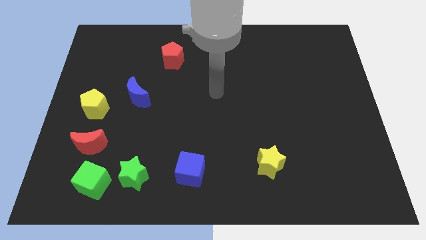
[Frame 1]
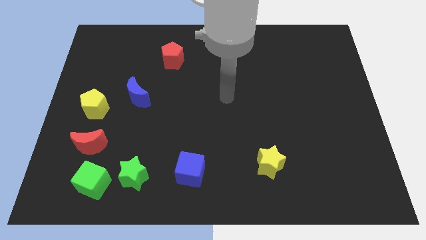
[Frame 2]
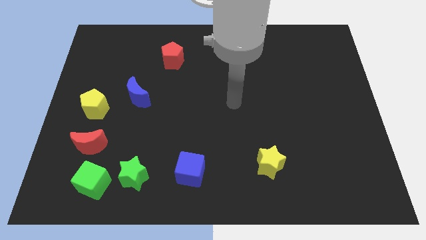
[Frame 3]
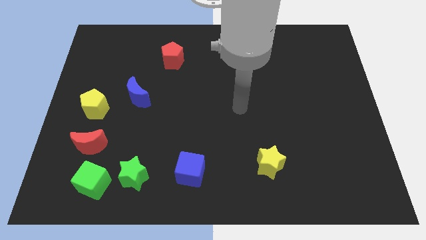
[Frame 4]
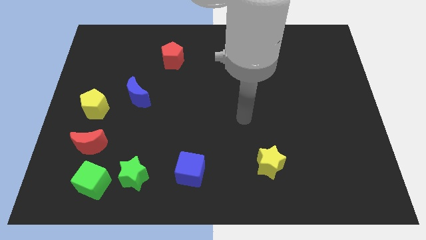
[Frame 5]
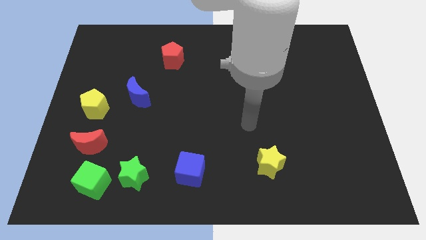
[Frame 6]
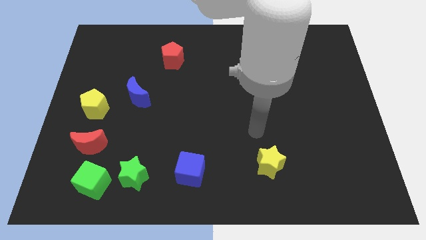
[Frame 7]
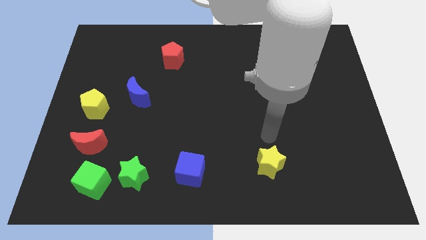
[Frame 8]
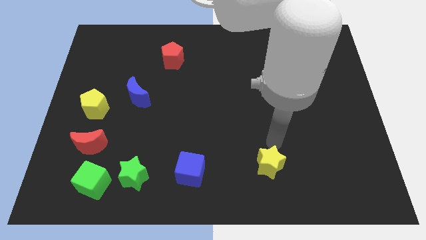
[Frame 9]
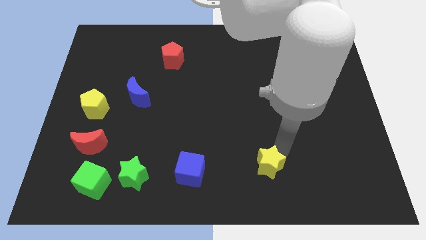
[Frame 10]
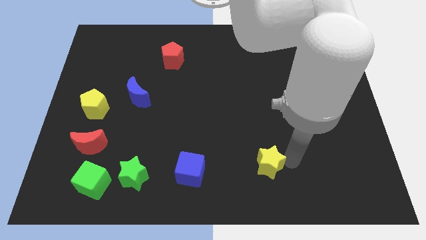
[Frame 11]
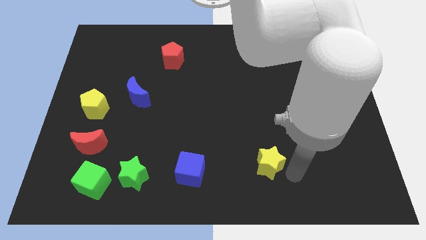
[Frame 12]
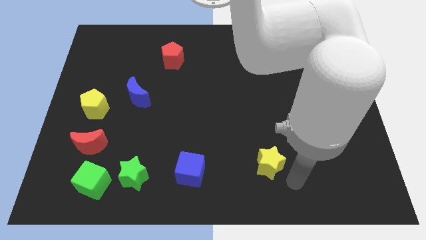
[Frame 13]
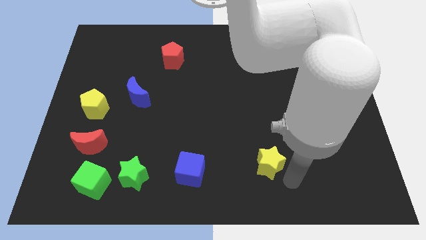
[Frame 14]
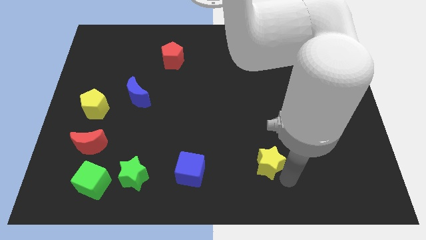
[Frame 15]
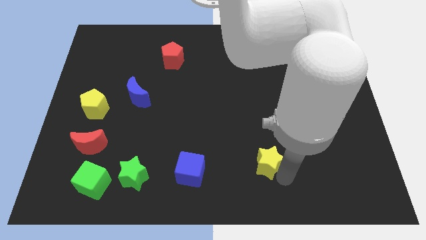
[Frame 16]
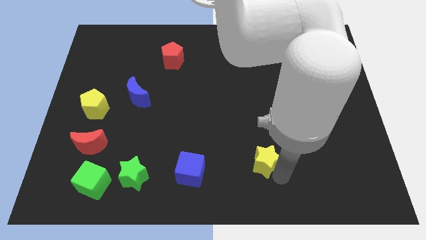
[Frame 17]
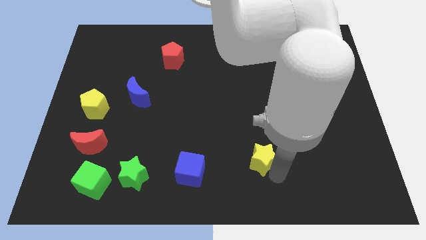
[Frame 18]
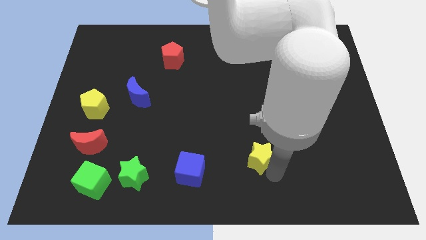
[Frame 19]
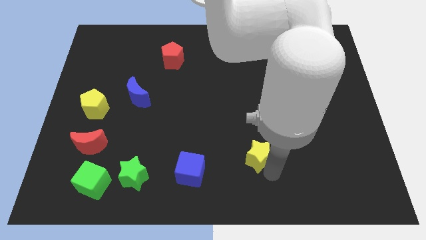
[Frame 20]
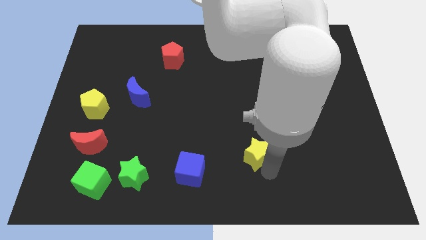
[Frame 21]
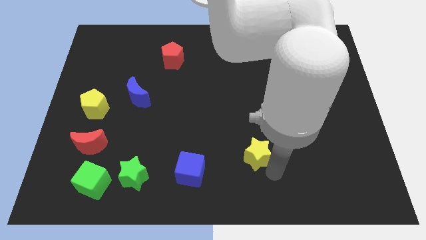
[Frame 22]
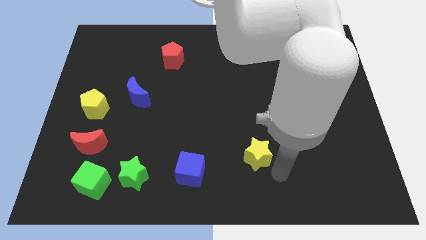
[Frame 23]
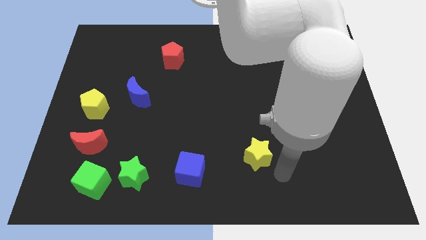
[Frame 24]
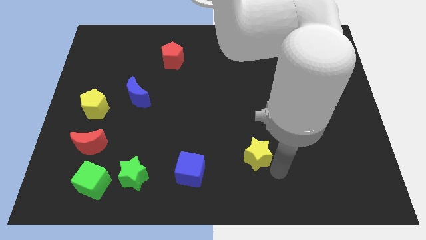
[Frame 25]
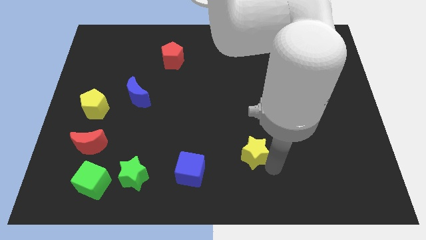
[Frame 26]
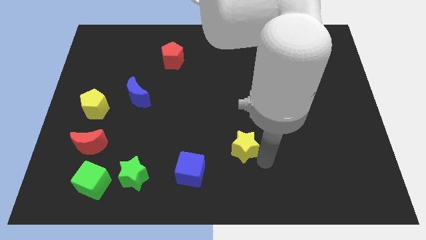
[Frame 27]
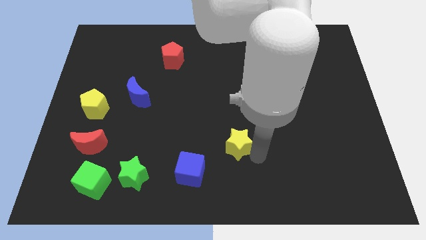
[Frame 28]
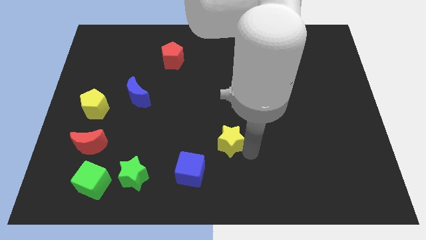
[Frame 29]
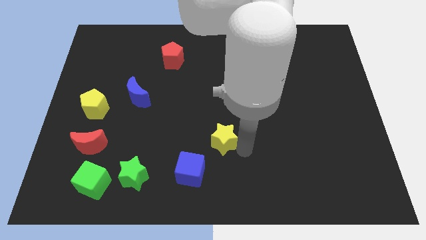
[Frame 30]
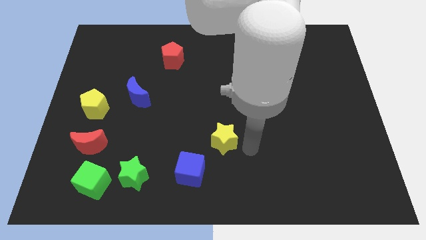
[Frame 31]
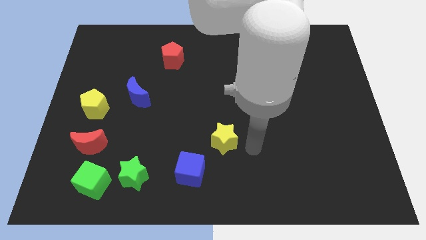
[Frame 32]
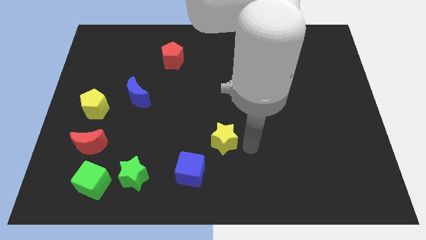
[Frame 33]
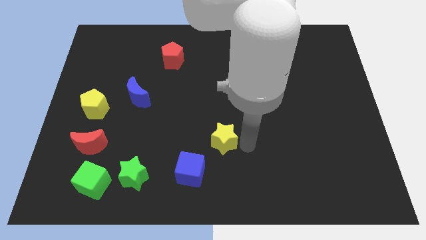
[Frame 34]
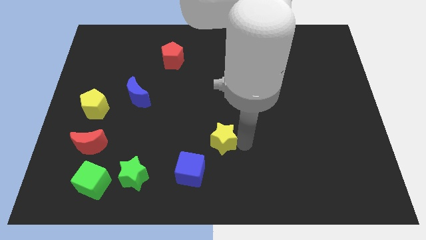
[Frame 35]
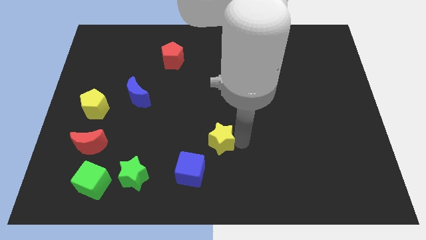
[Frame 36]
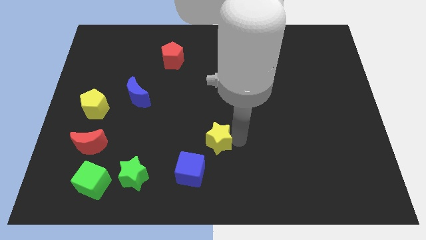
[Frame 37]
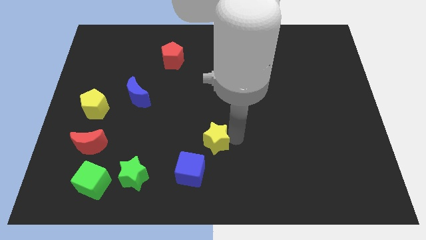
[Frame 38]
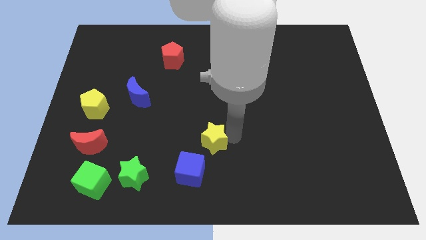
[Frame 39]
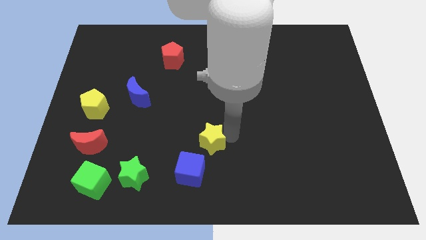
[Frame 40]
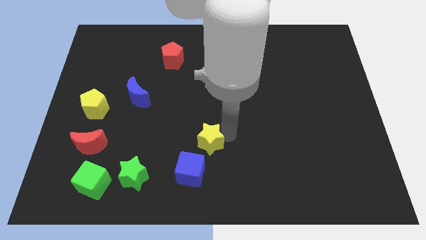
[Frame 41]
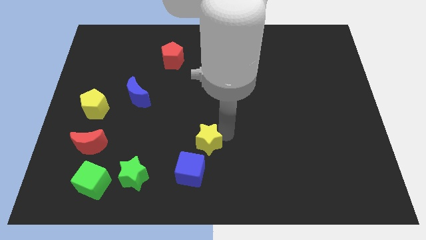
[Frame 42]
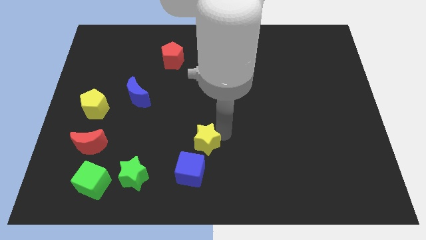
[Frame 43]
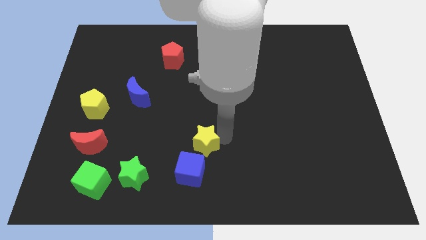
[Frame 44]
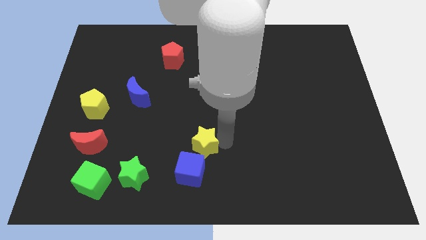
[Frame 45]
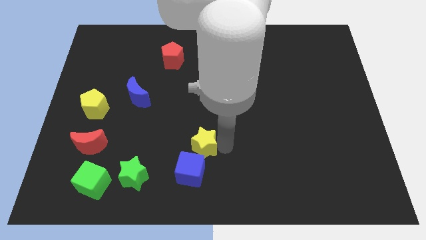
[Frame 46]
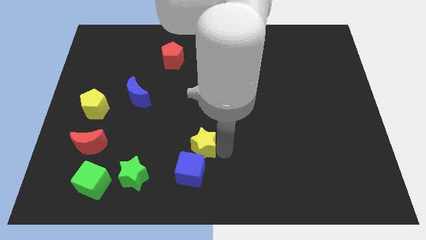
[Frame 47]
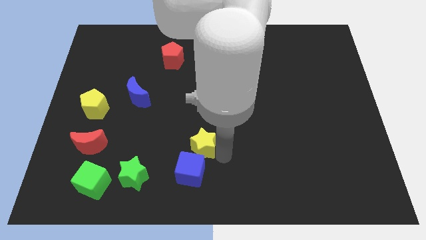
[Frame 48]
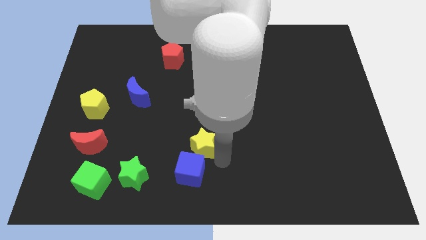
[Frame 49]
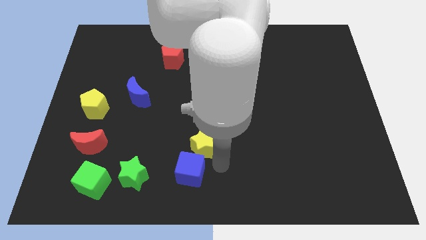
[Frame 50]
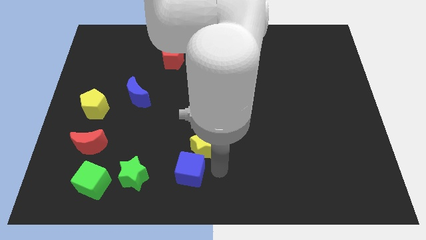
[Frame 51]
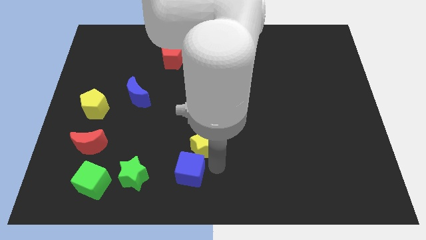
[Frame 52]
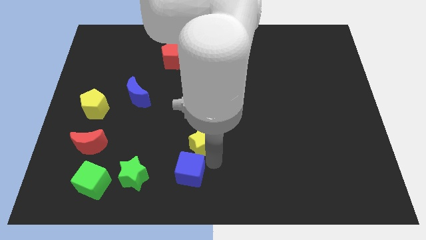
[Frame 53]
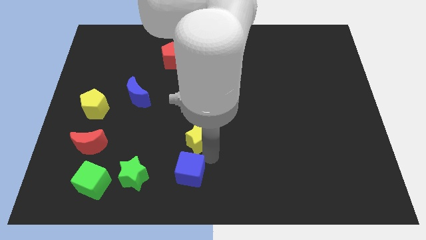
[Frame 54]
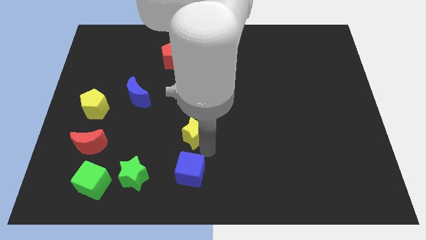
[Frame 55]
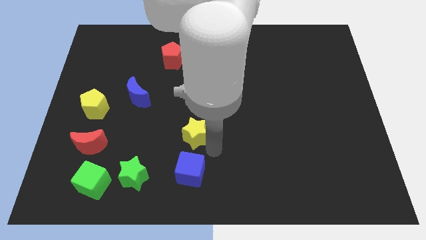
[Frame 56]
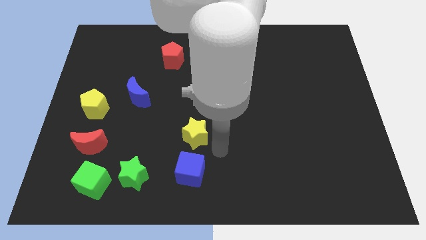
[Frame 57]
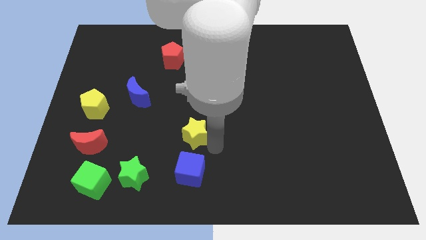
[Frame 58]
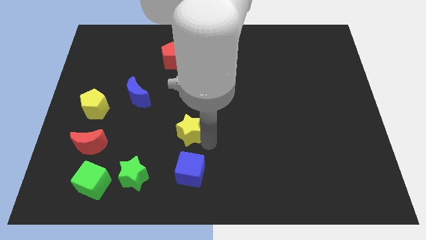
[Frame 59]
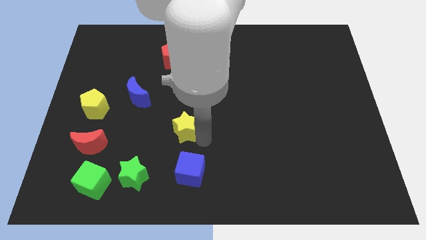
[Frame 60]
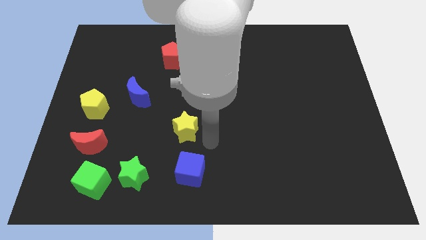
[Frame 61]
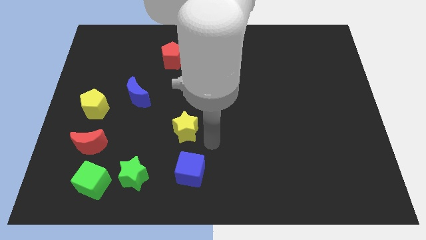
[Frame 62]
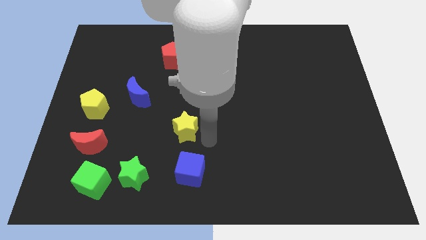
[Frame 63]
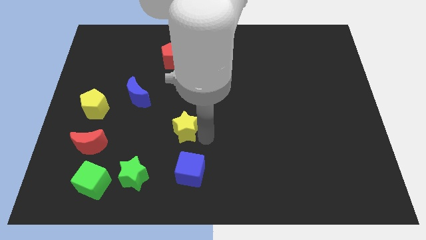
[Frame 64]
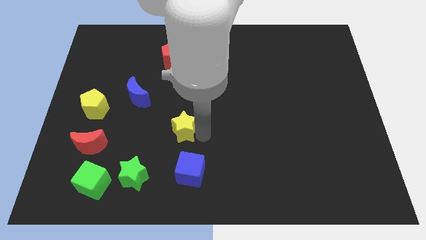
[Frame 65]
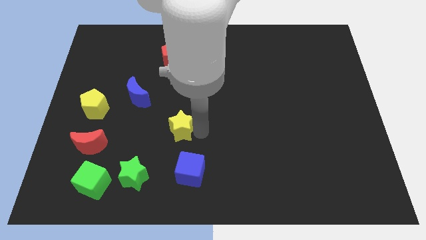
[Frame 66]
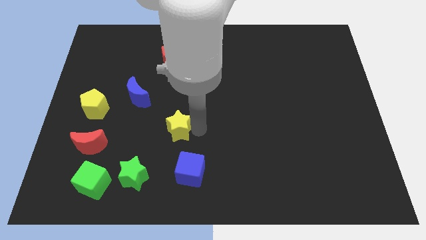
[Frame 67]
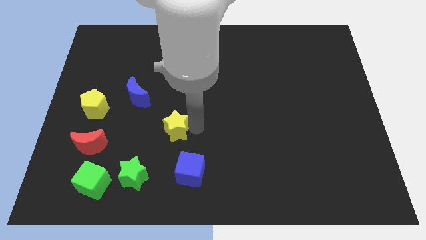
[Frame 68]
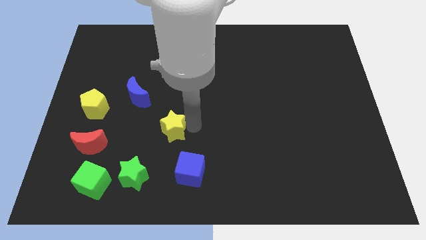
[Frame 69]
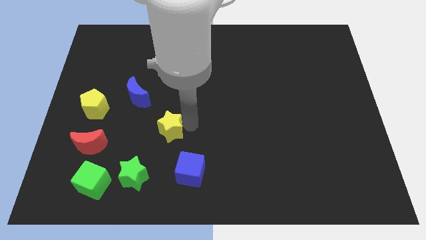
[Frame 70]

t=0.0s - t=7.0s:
move the yellow star to the bottom right side of the blue moon

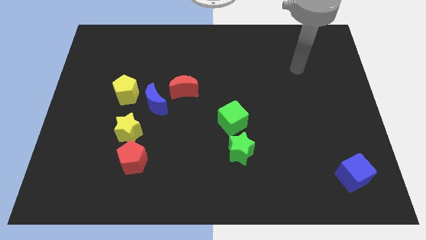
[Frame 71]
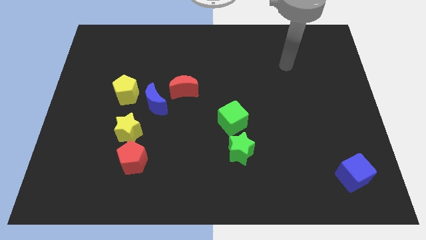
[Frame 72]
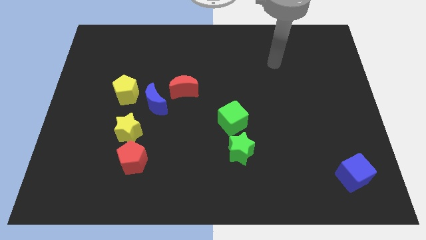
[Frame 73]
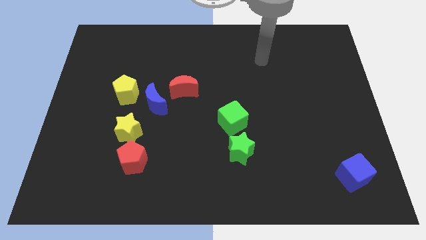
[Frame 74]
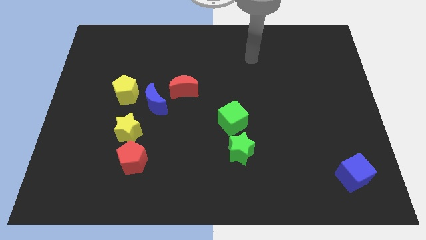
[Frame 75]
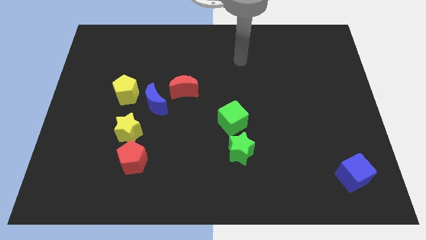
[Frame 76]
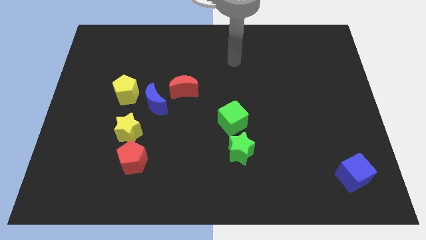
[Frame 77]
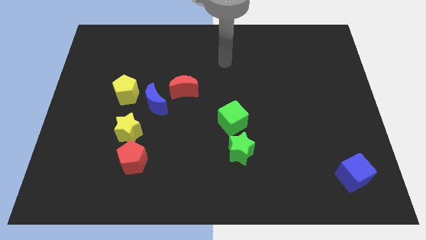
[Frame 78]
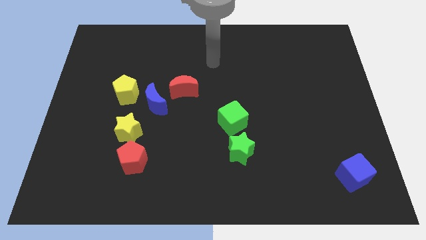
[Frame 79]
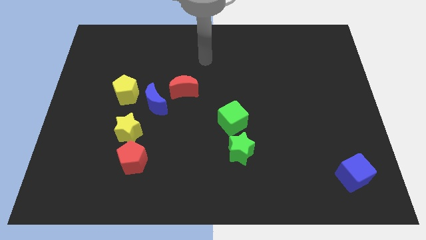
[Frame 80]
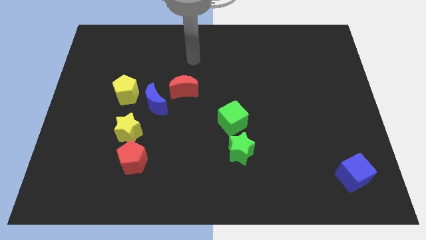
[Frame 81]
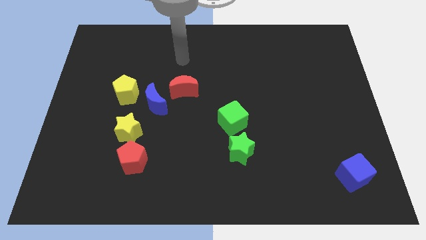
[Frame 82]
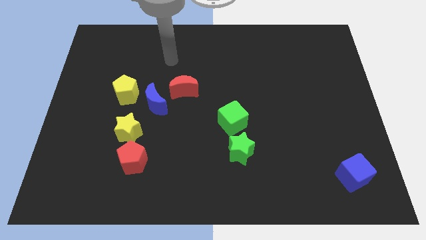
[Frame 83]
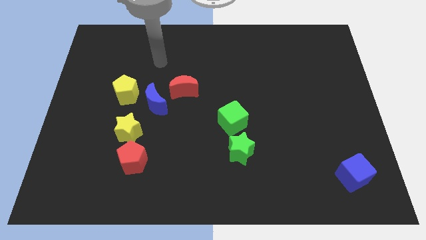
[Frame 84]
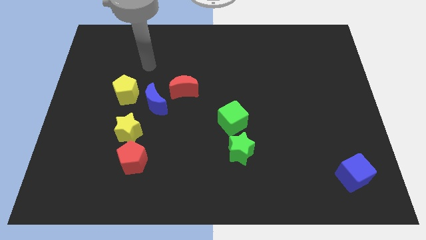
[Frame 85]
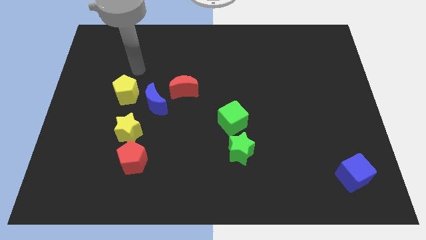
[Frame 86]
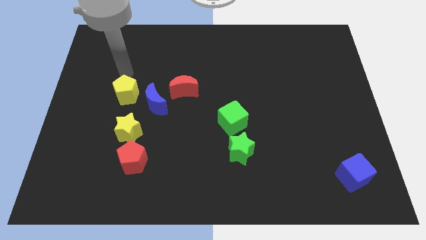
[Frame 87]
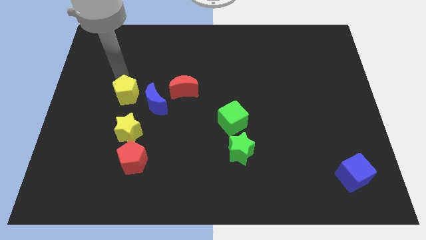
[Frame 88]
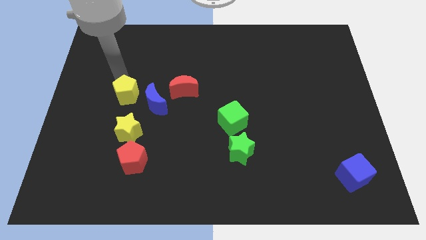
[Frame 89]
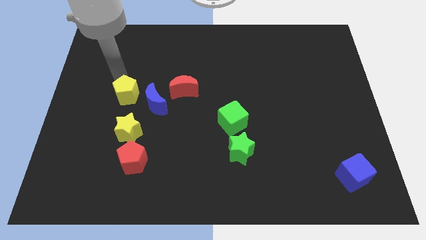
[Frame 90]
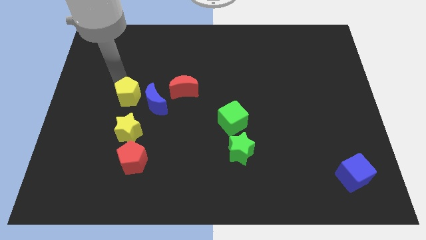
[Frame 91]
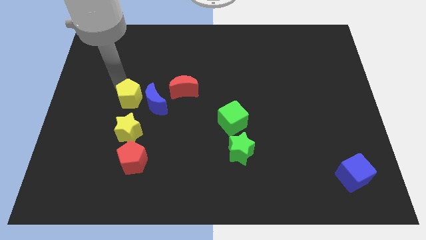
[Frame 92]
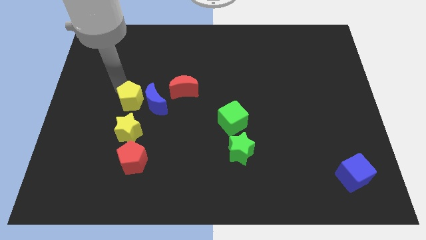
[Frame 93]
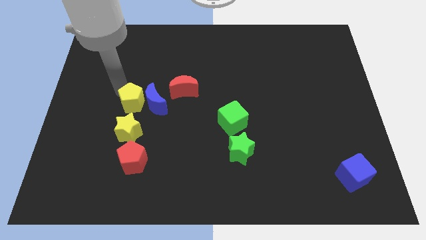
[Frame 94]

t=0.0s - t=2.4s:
move the yellow pentagon to the top of the red pentagon
